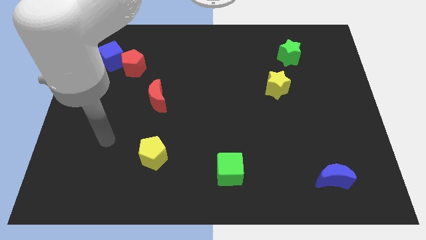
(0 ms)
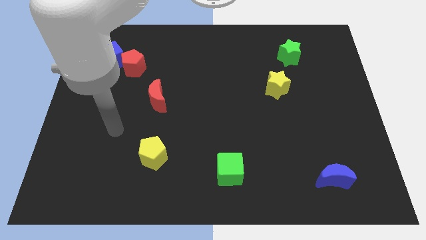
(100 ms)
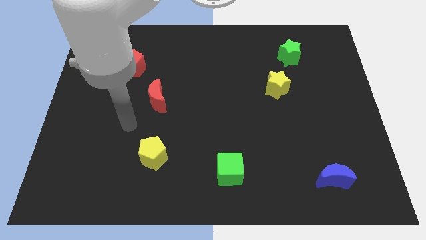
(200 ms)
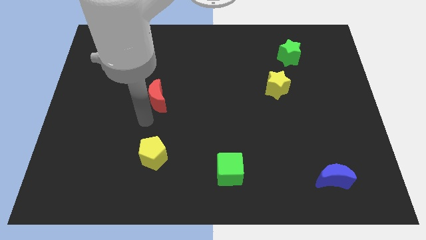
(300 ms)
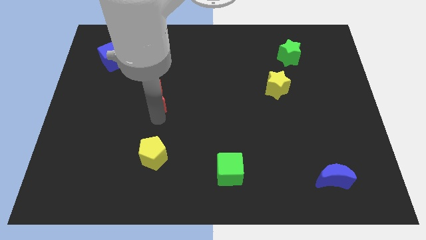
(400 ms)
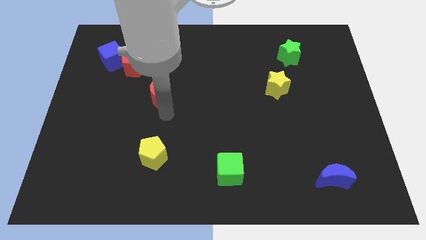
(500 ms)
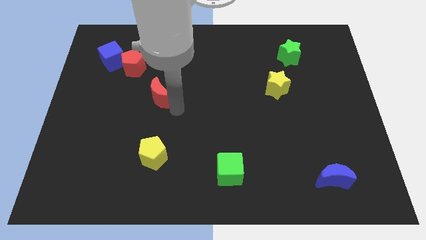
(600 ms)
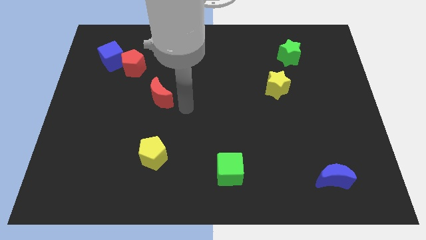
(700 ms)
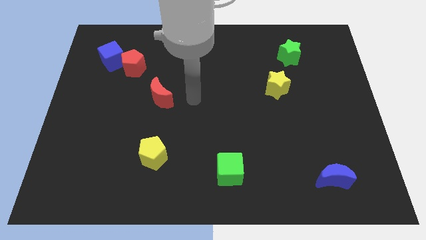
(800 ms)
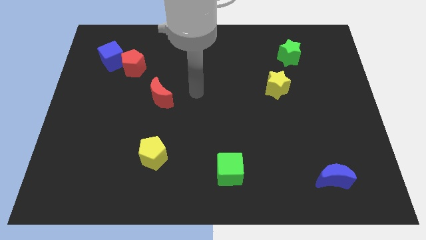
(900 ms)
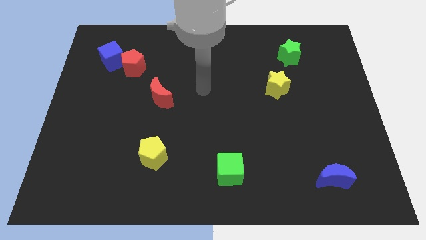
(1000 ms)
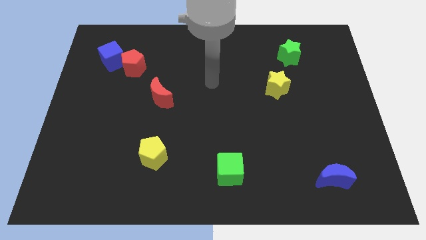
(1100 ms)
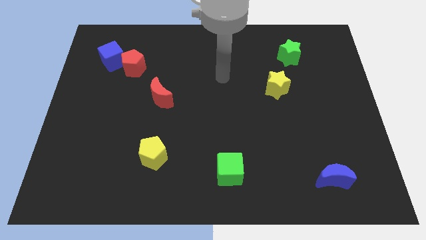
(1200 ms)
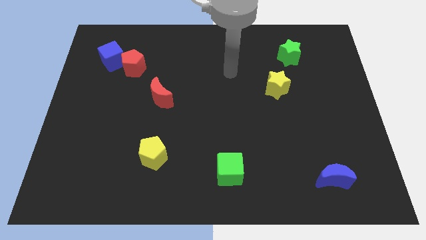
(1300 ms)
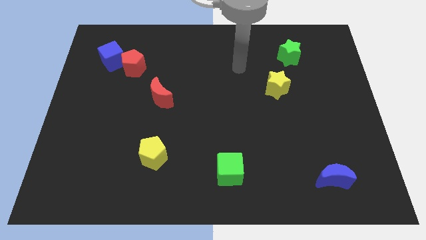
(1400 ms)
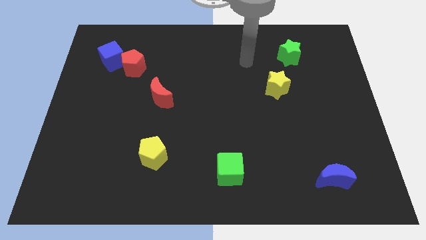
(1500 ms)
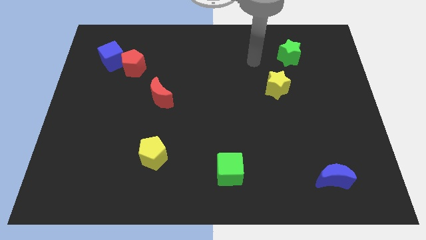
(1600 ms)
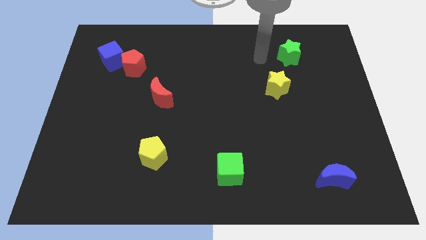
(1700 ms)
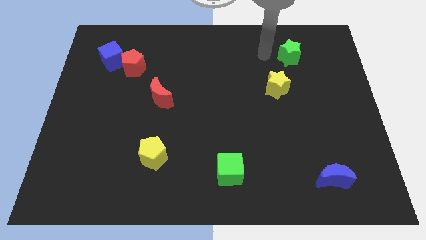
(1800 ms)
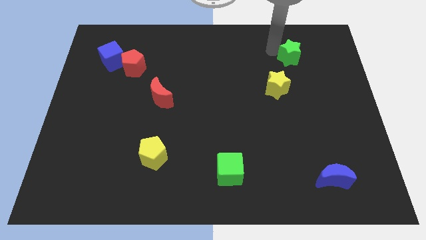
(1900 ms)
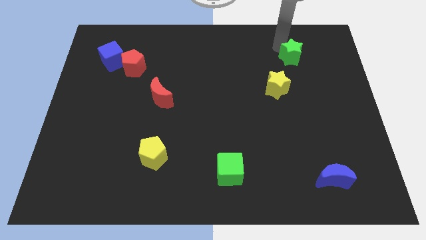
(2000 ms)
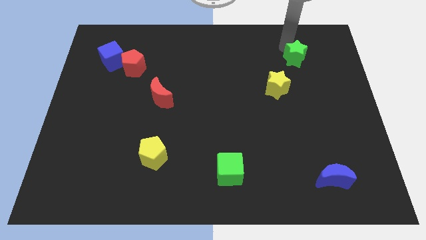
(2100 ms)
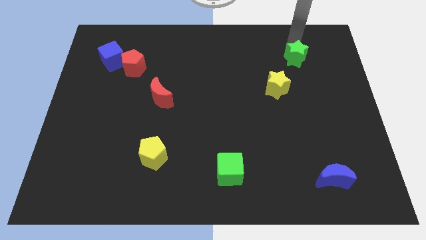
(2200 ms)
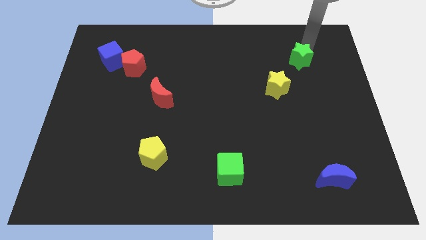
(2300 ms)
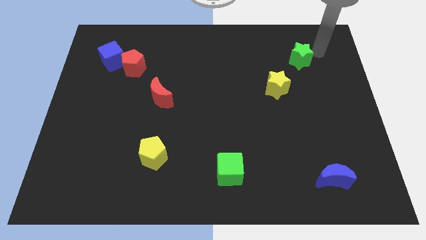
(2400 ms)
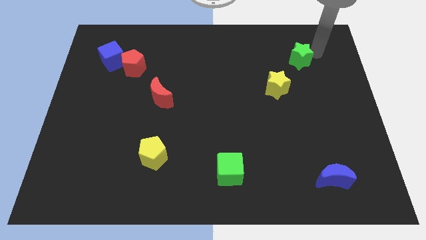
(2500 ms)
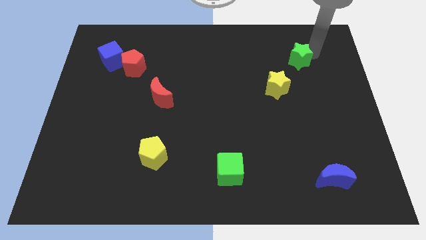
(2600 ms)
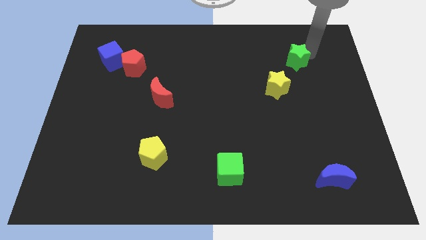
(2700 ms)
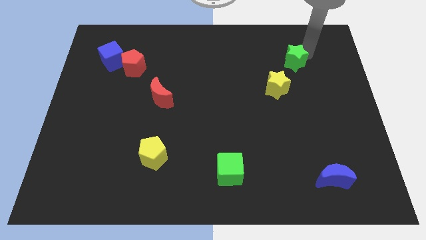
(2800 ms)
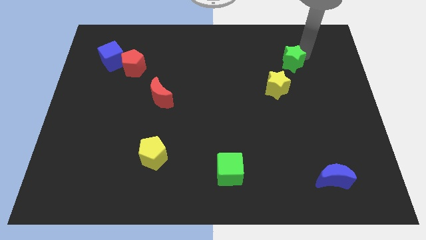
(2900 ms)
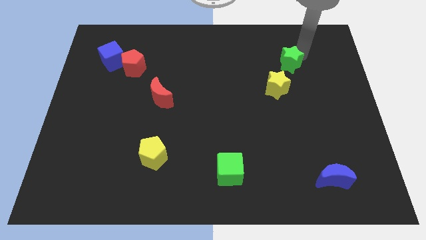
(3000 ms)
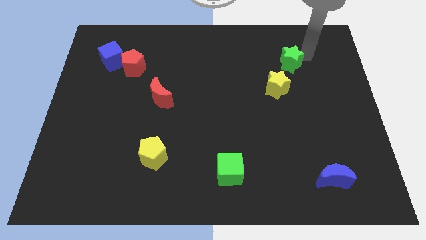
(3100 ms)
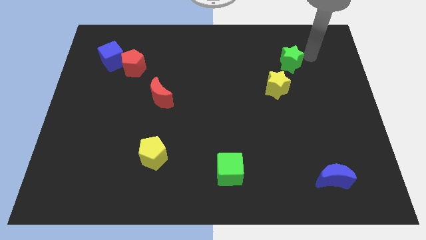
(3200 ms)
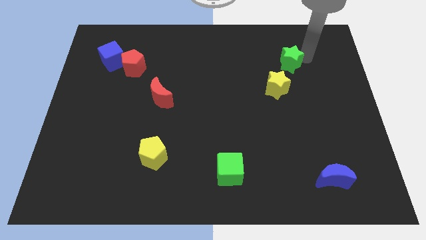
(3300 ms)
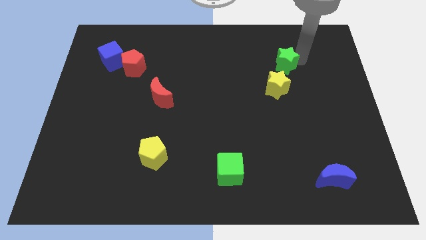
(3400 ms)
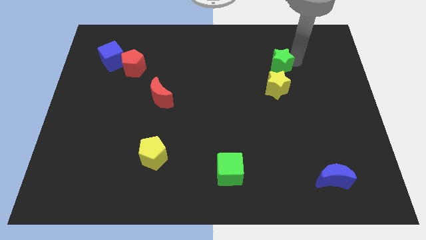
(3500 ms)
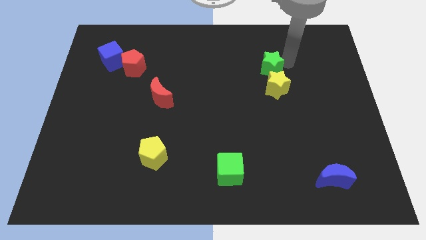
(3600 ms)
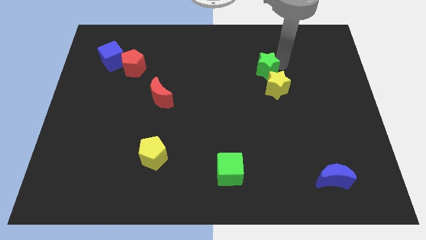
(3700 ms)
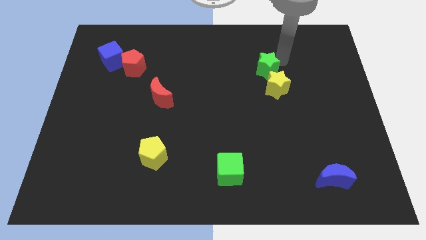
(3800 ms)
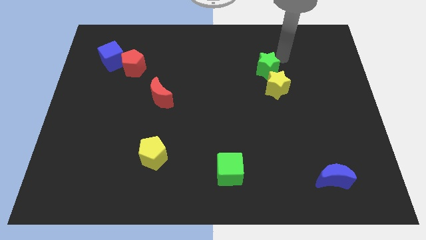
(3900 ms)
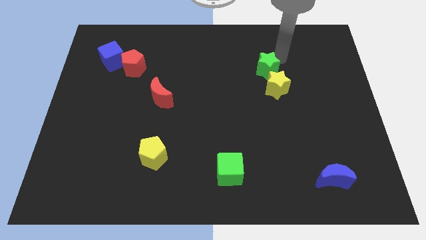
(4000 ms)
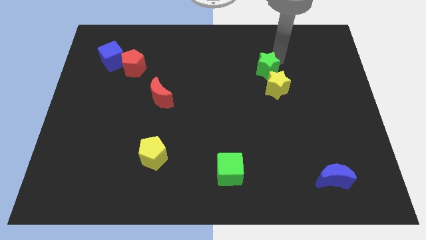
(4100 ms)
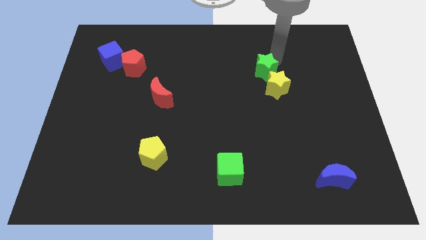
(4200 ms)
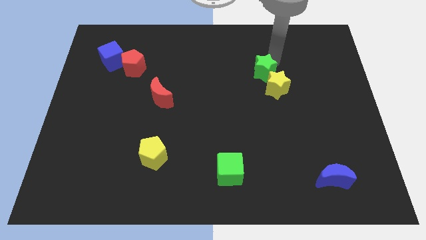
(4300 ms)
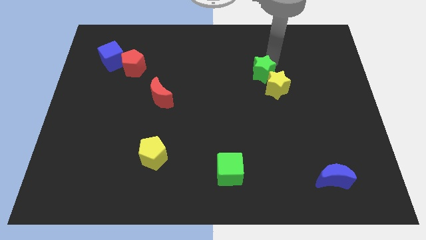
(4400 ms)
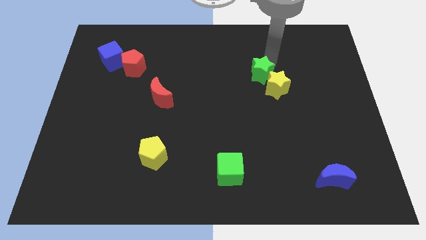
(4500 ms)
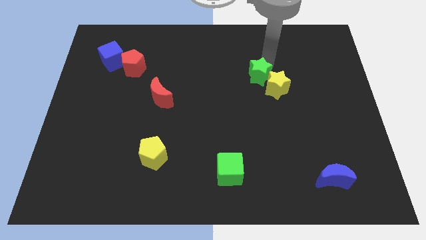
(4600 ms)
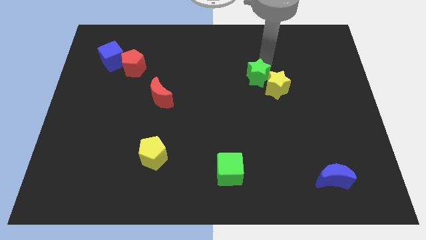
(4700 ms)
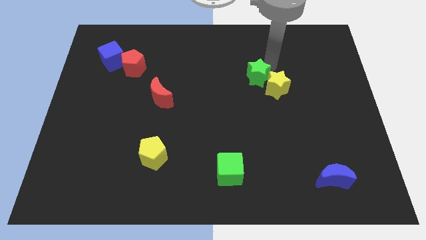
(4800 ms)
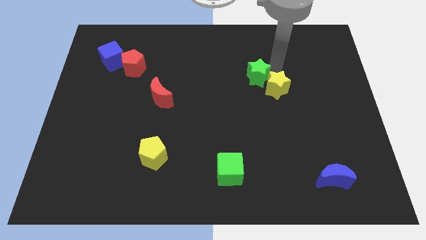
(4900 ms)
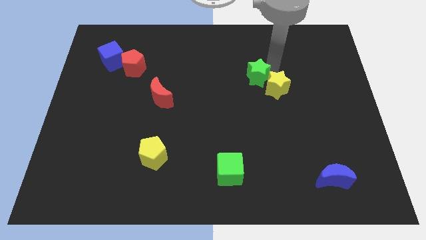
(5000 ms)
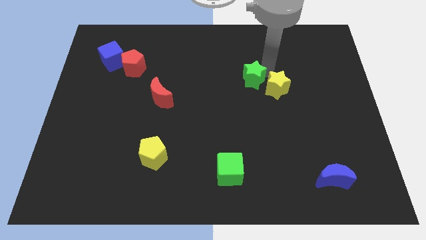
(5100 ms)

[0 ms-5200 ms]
push the green star to the center of the board

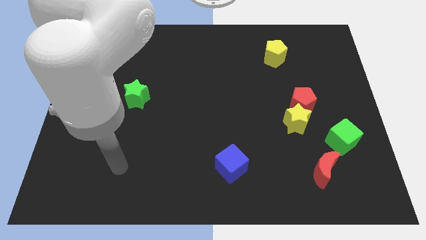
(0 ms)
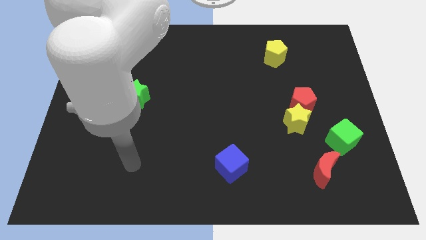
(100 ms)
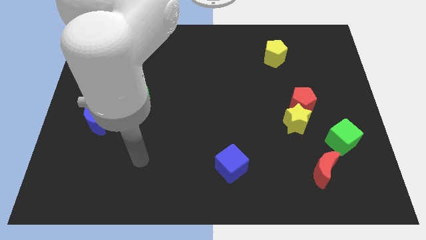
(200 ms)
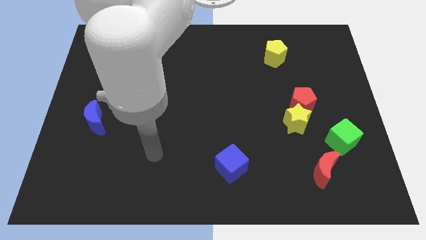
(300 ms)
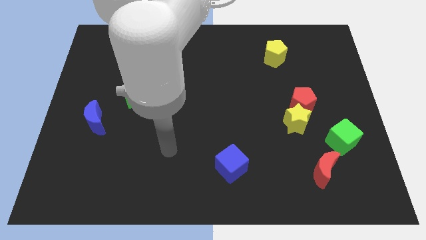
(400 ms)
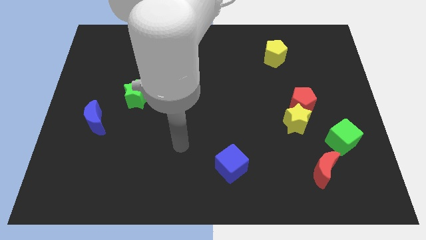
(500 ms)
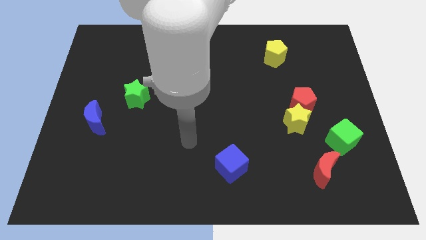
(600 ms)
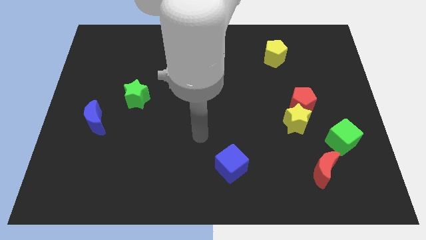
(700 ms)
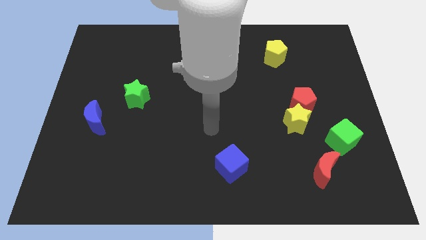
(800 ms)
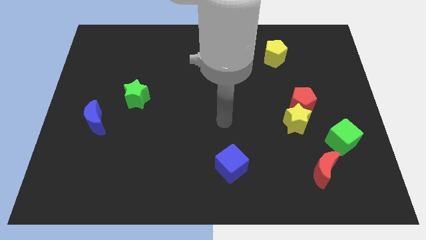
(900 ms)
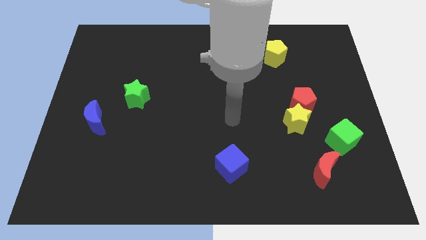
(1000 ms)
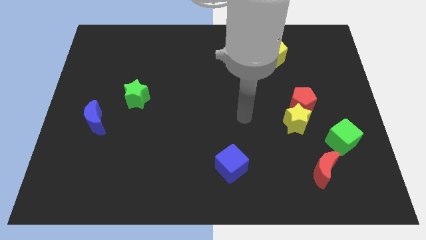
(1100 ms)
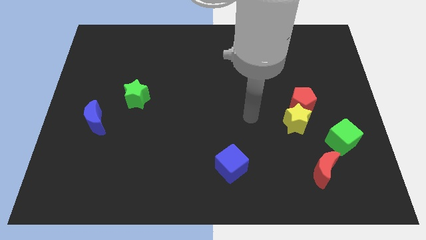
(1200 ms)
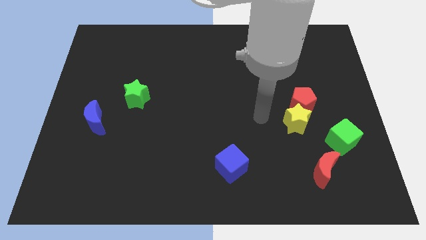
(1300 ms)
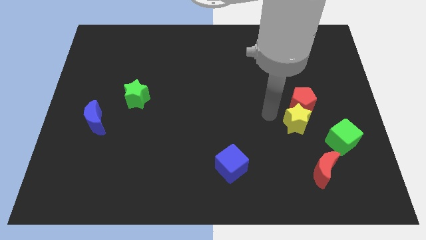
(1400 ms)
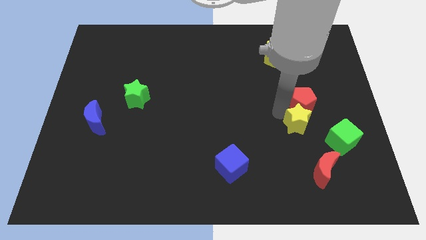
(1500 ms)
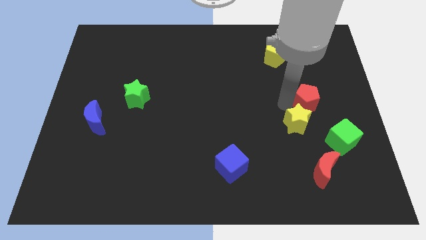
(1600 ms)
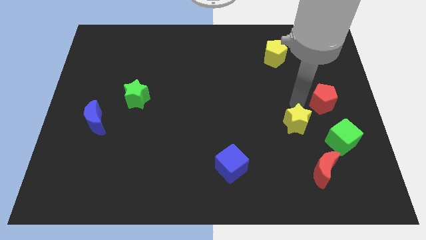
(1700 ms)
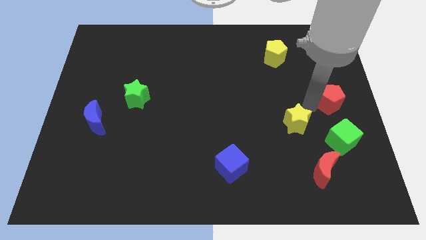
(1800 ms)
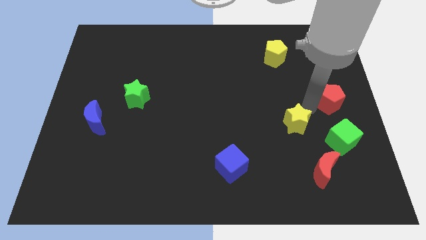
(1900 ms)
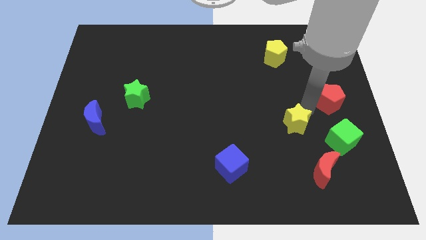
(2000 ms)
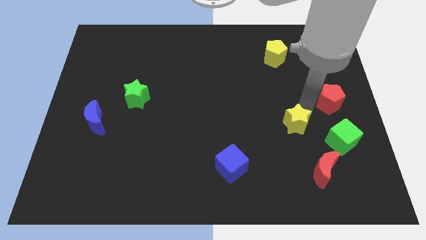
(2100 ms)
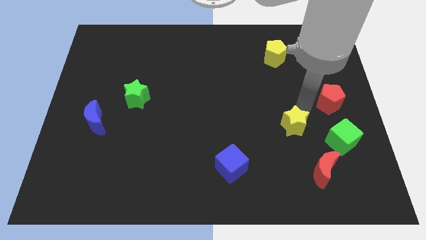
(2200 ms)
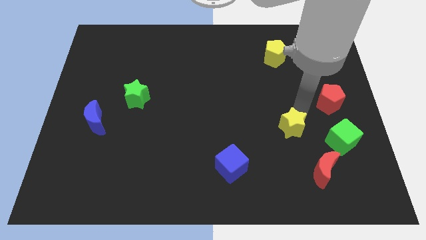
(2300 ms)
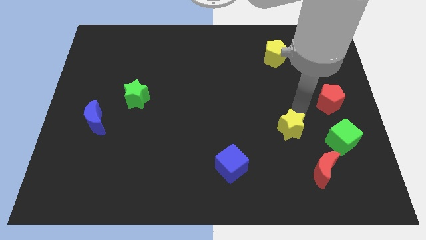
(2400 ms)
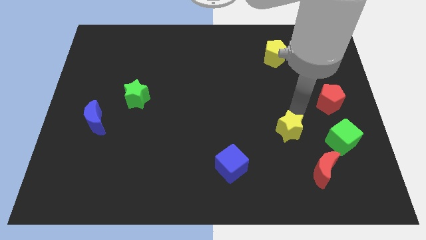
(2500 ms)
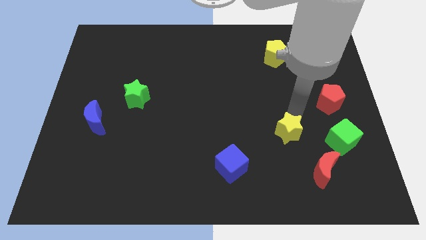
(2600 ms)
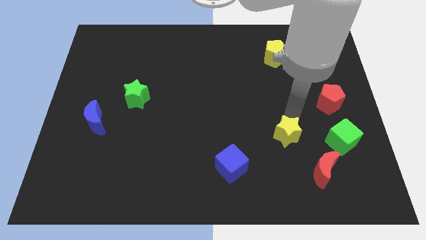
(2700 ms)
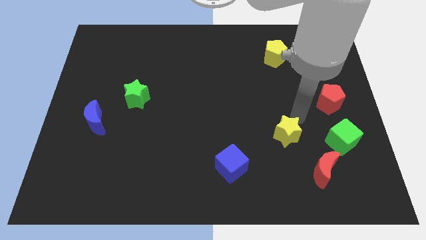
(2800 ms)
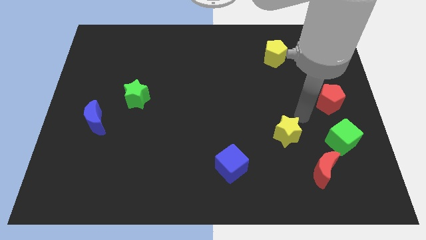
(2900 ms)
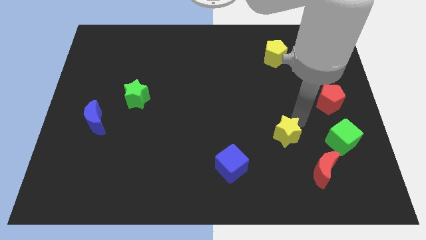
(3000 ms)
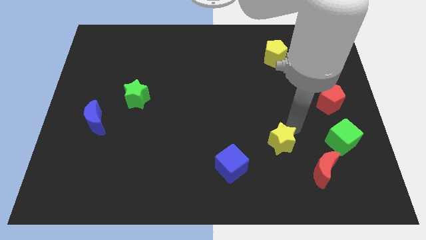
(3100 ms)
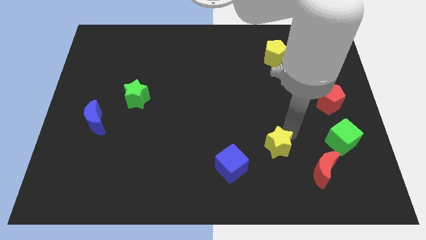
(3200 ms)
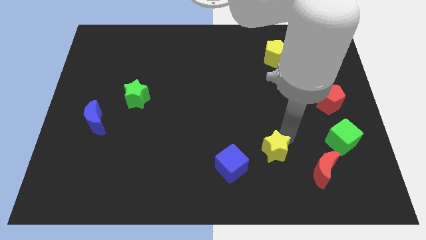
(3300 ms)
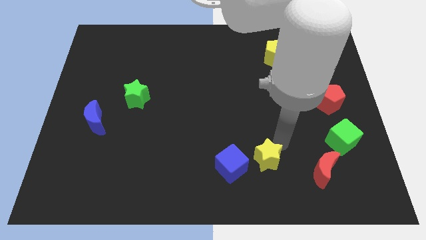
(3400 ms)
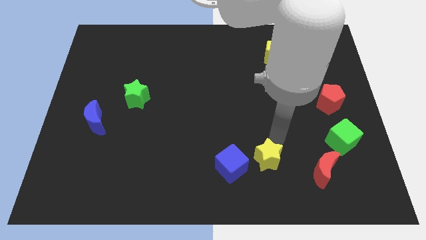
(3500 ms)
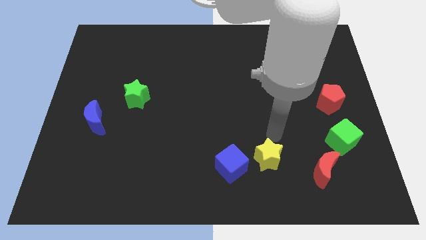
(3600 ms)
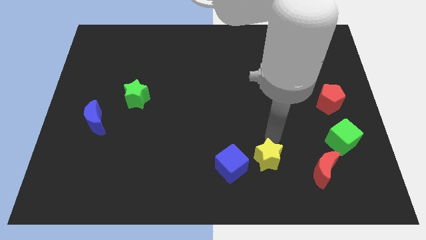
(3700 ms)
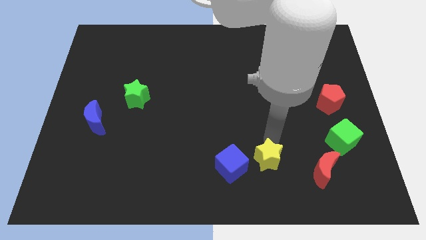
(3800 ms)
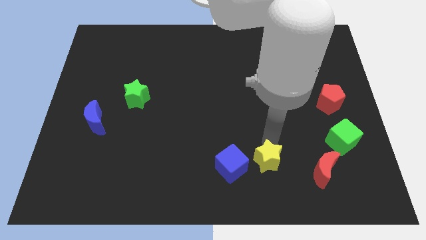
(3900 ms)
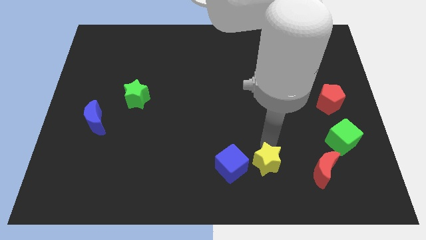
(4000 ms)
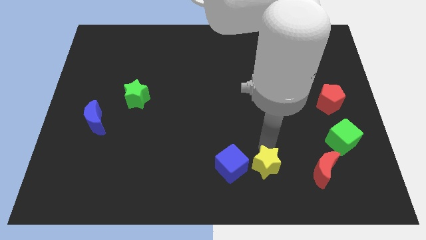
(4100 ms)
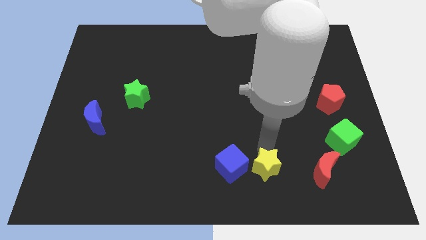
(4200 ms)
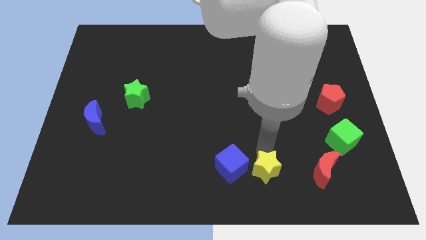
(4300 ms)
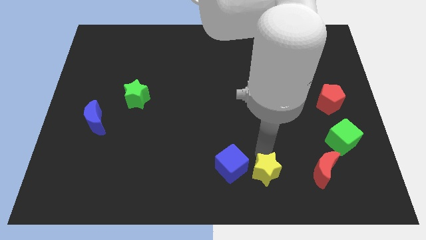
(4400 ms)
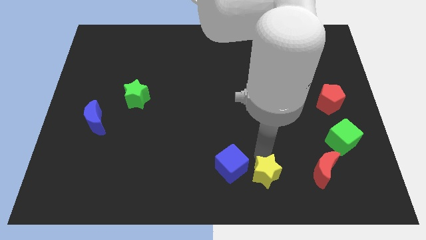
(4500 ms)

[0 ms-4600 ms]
slide the yellow star to the bottom side
